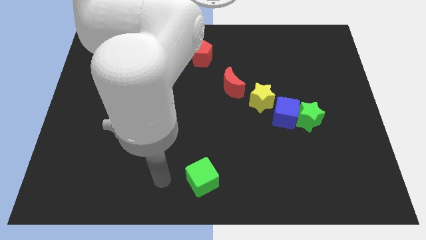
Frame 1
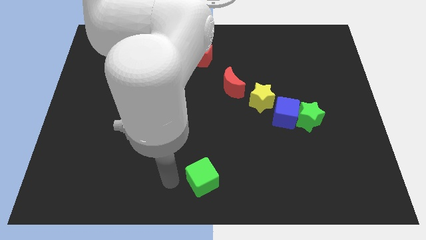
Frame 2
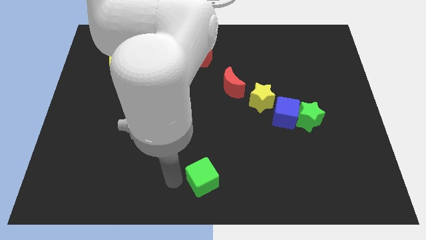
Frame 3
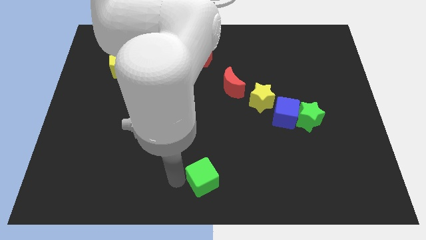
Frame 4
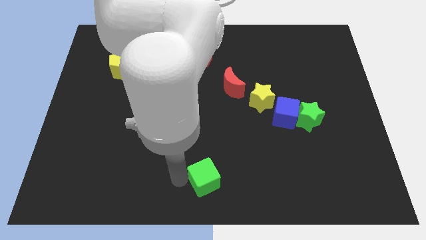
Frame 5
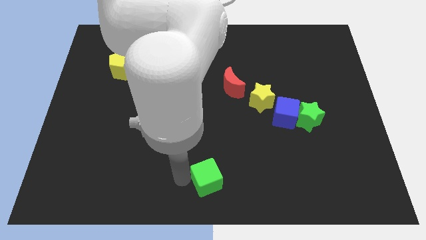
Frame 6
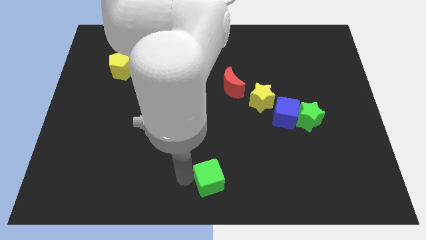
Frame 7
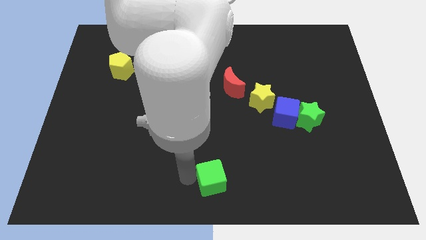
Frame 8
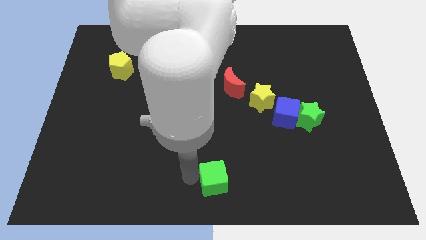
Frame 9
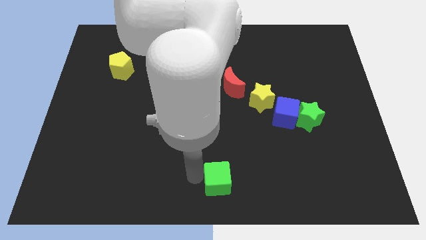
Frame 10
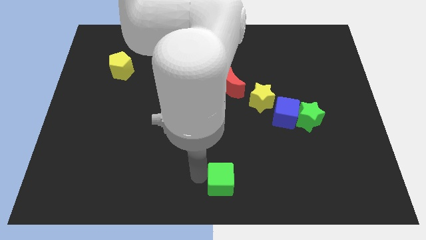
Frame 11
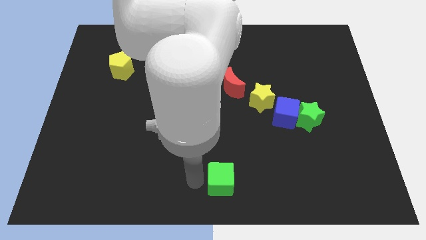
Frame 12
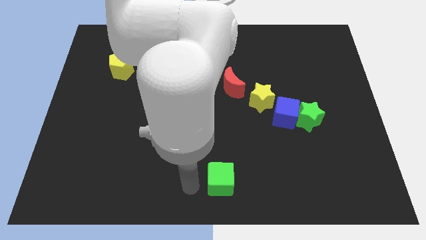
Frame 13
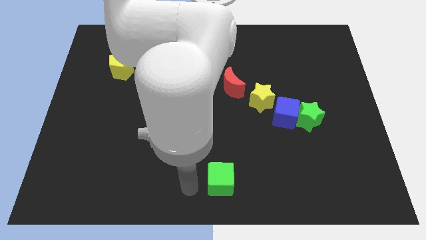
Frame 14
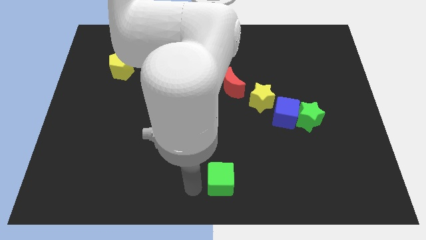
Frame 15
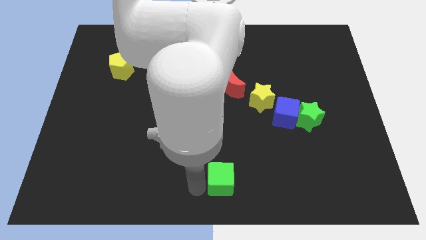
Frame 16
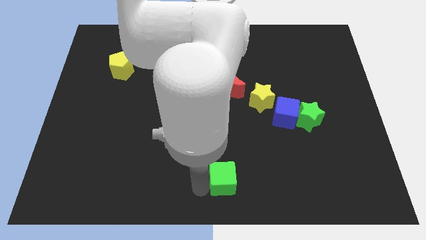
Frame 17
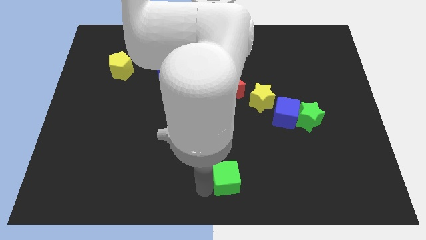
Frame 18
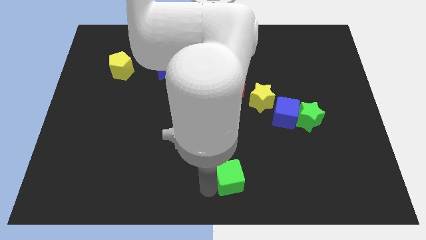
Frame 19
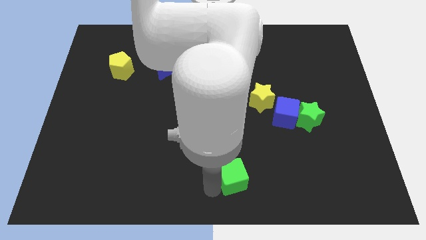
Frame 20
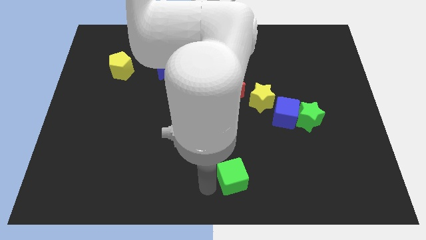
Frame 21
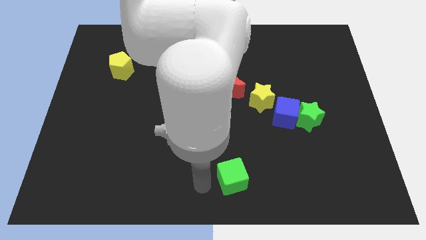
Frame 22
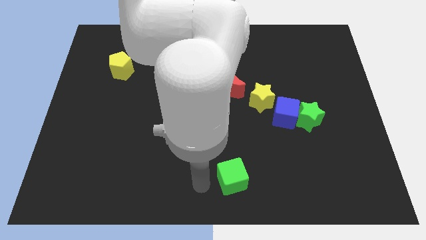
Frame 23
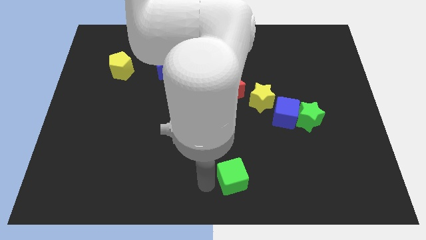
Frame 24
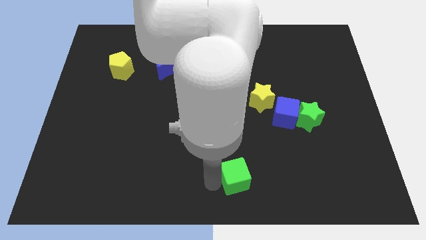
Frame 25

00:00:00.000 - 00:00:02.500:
push the green cube right a little bit

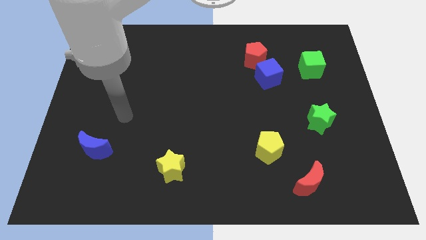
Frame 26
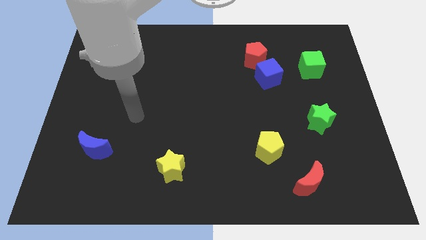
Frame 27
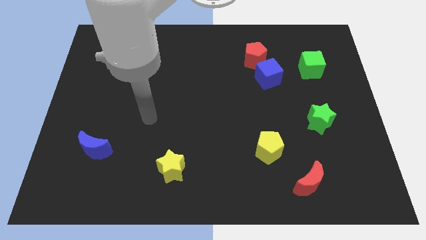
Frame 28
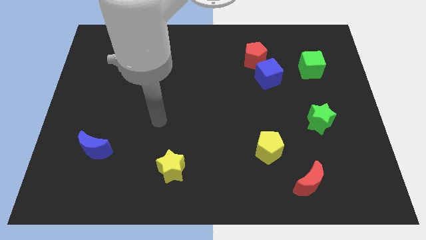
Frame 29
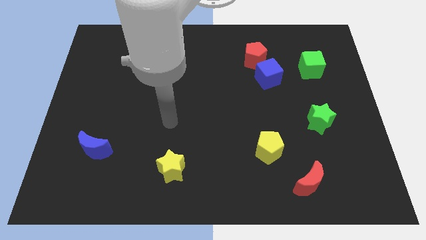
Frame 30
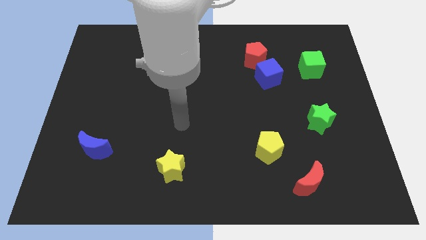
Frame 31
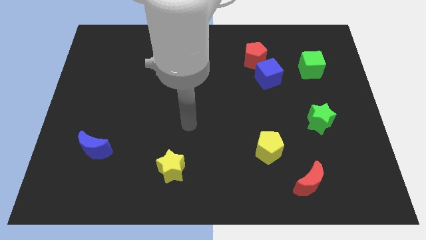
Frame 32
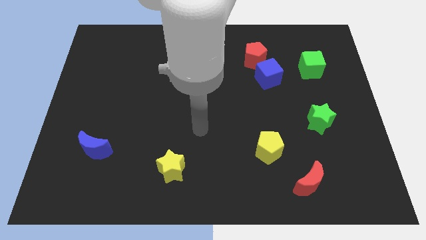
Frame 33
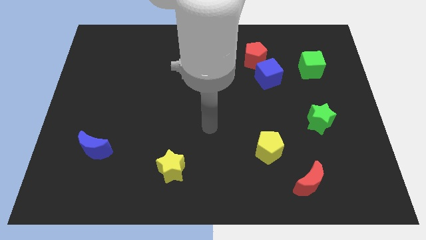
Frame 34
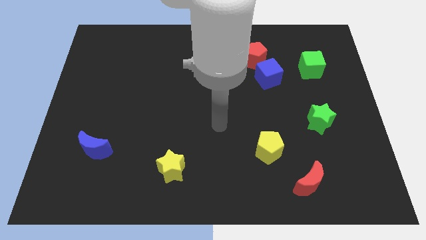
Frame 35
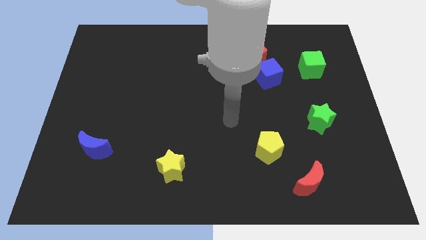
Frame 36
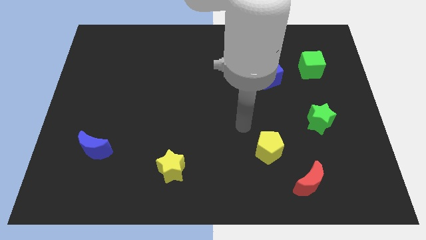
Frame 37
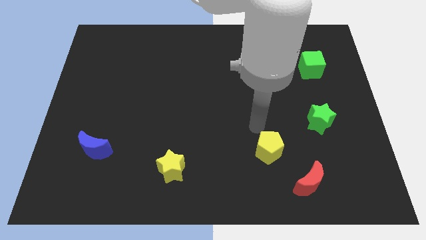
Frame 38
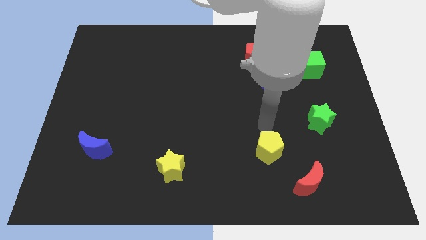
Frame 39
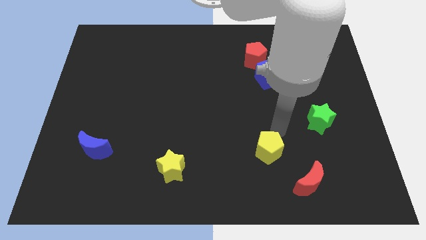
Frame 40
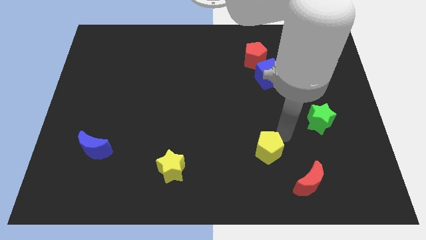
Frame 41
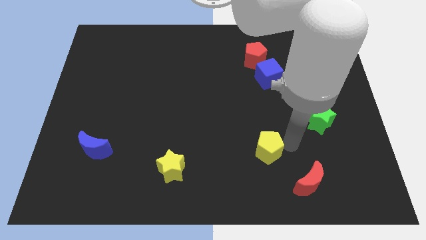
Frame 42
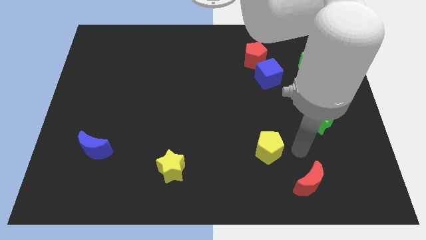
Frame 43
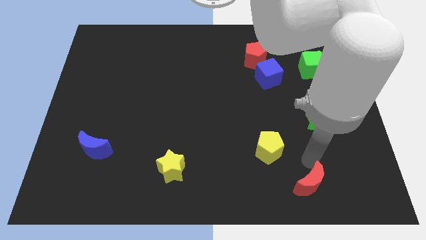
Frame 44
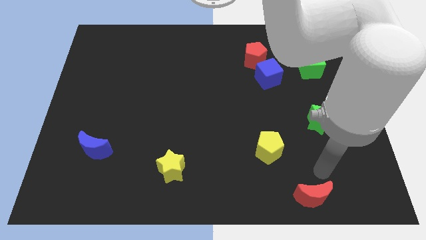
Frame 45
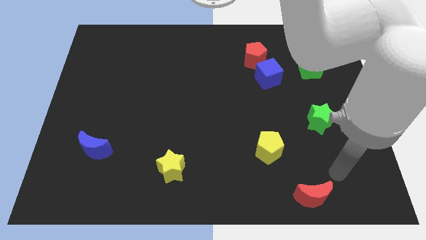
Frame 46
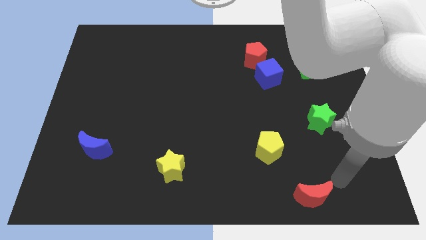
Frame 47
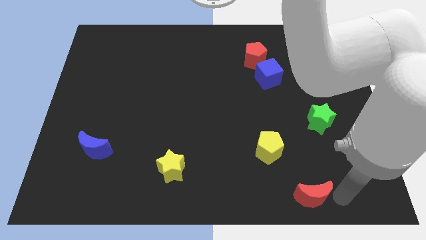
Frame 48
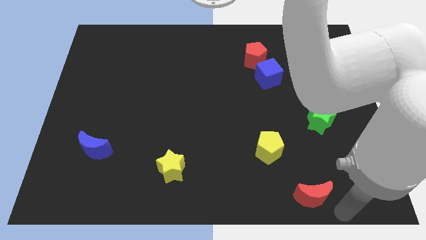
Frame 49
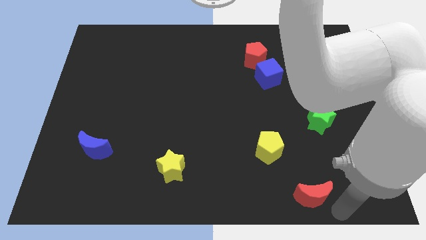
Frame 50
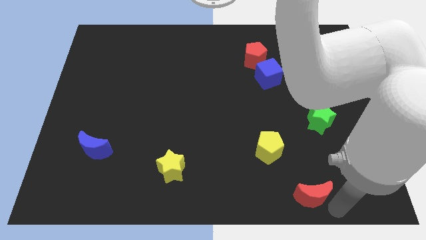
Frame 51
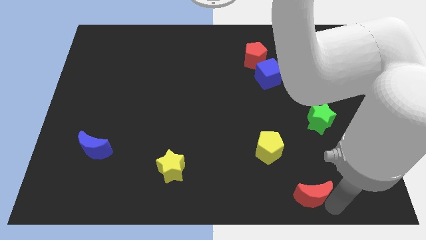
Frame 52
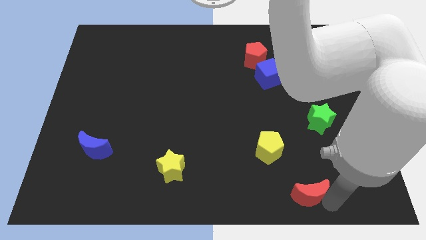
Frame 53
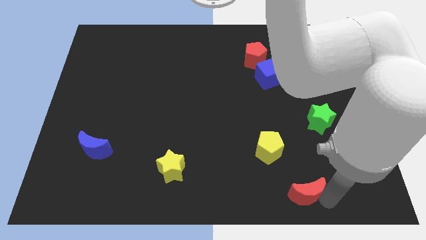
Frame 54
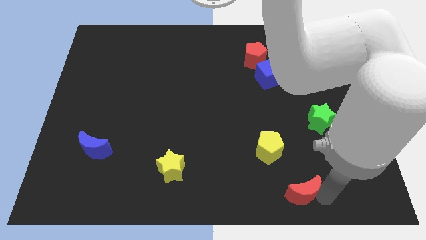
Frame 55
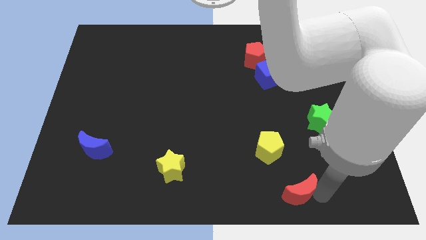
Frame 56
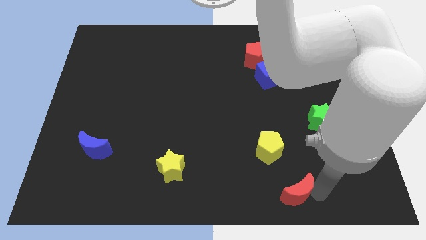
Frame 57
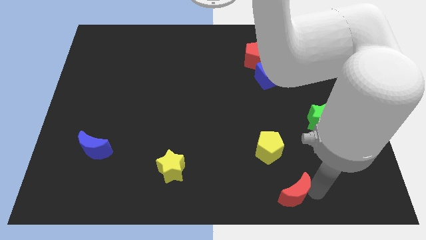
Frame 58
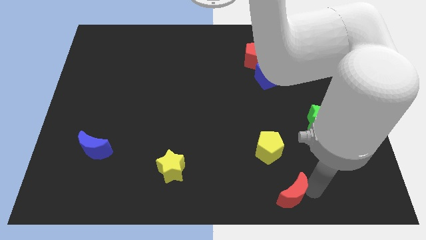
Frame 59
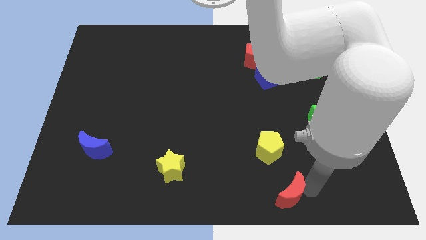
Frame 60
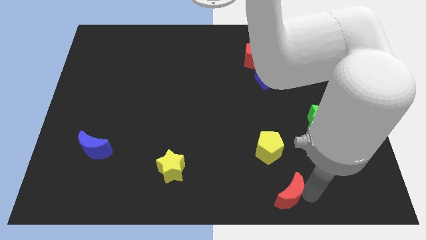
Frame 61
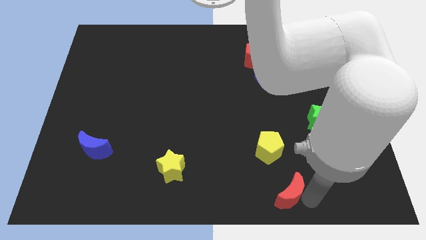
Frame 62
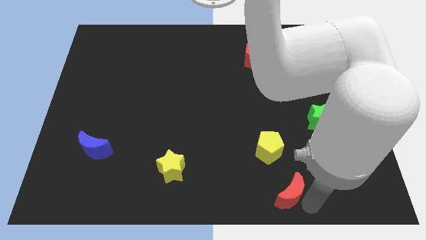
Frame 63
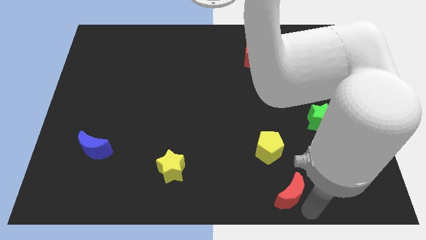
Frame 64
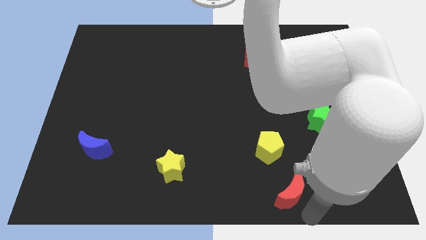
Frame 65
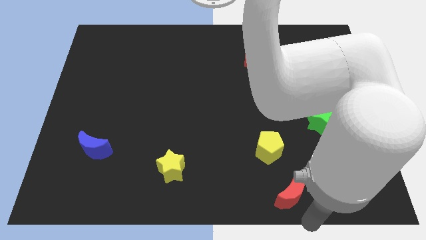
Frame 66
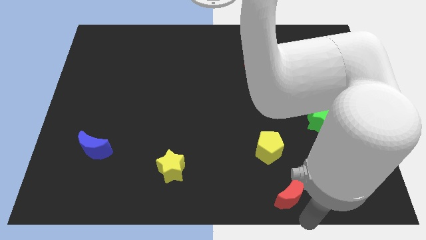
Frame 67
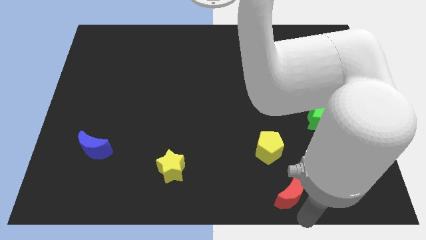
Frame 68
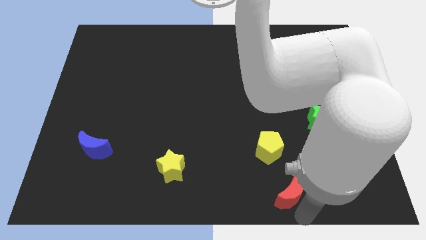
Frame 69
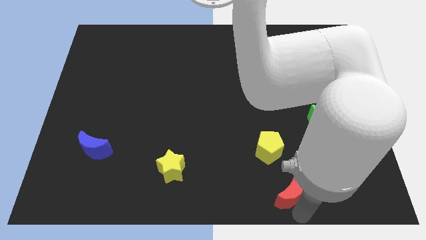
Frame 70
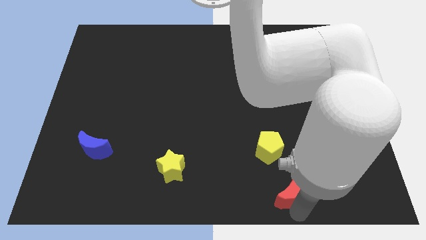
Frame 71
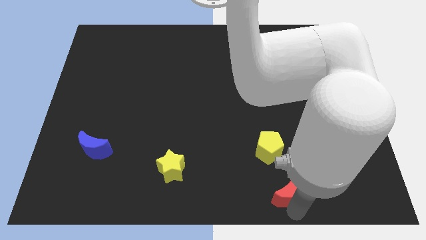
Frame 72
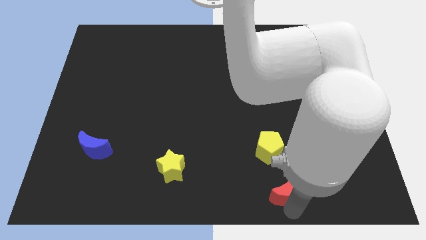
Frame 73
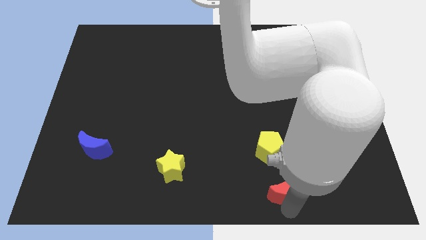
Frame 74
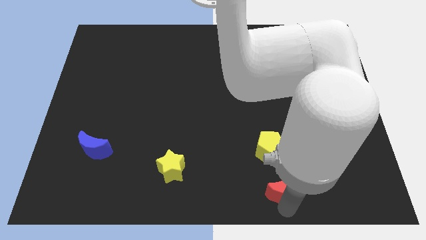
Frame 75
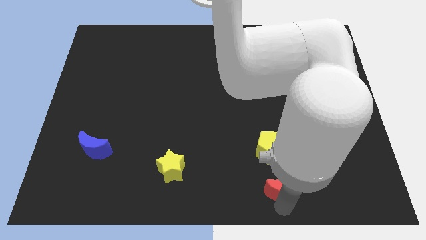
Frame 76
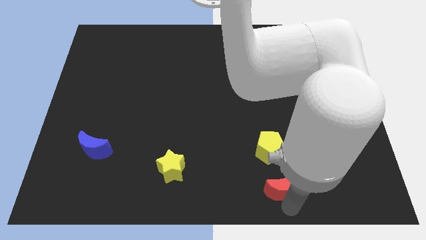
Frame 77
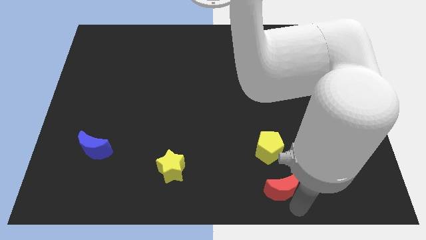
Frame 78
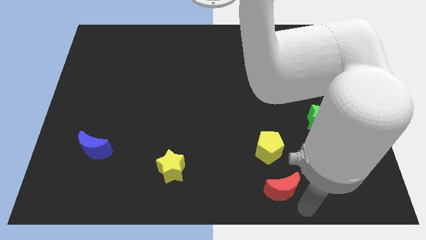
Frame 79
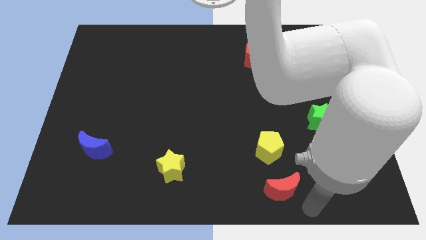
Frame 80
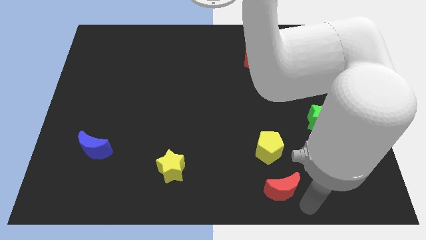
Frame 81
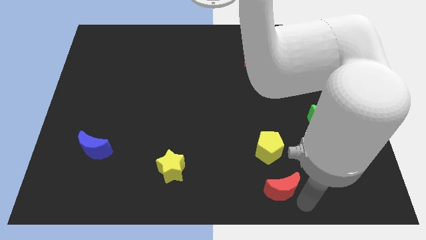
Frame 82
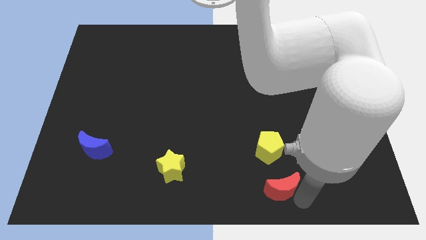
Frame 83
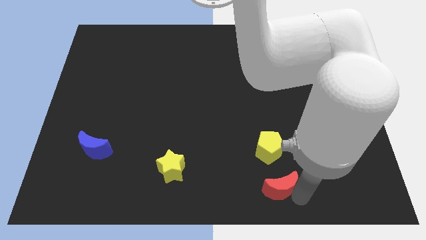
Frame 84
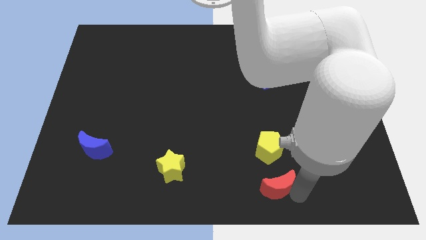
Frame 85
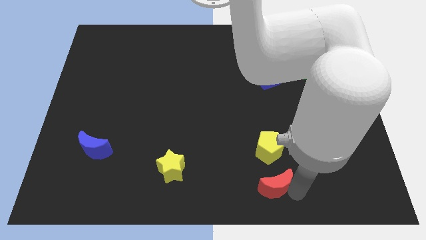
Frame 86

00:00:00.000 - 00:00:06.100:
slightly move the red moon to the left
